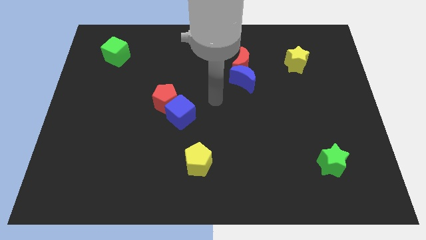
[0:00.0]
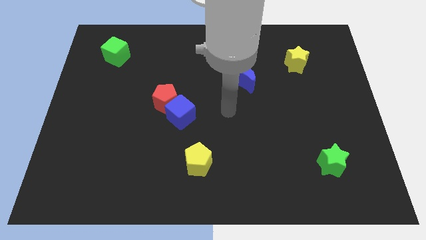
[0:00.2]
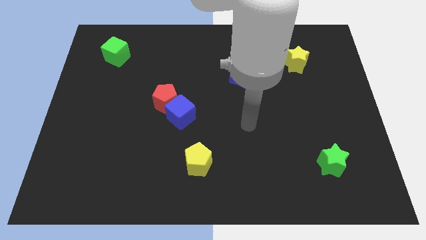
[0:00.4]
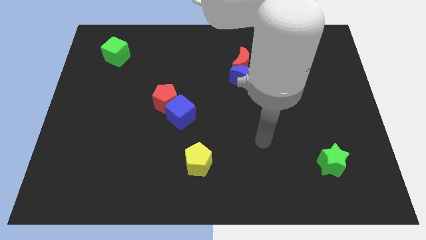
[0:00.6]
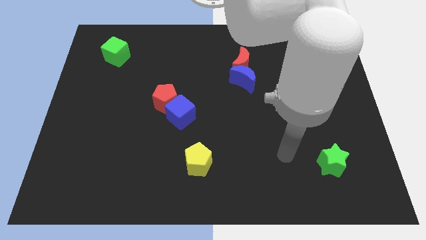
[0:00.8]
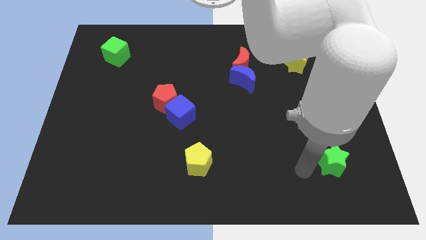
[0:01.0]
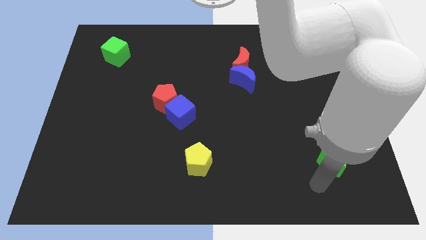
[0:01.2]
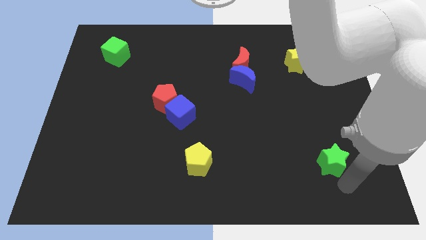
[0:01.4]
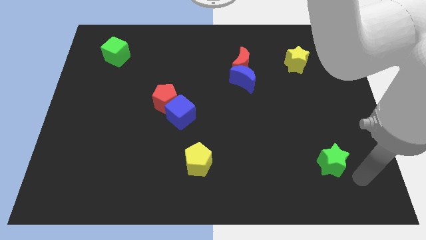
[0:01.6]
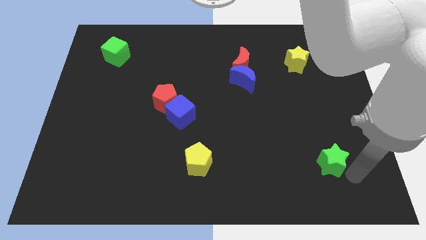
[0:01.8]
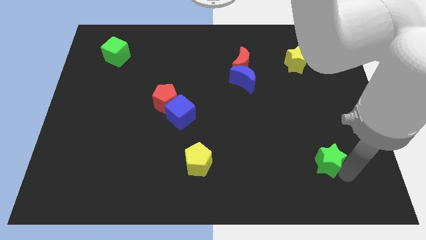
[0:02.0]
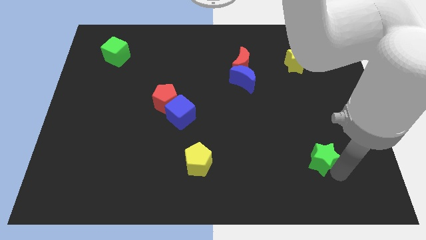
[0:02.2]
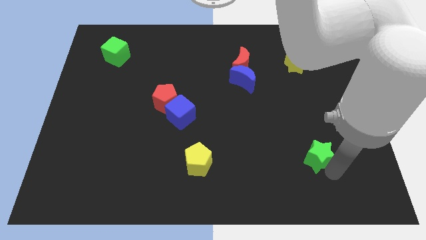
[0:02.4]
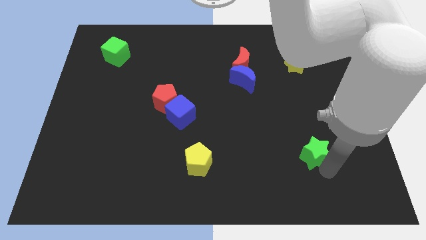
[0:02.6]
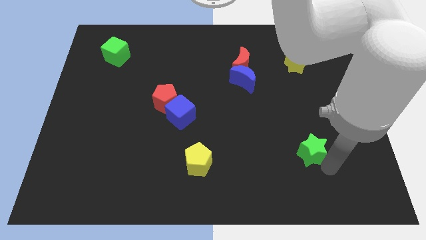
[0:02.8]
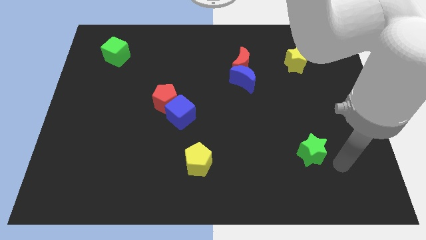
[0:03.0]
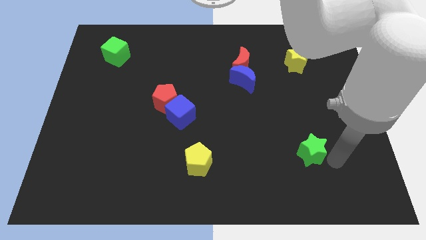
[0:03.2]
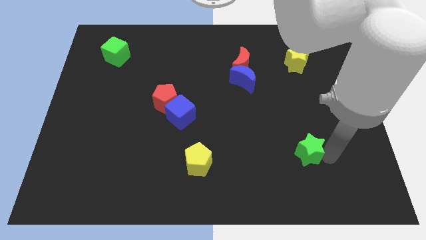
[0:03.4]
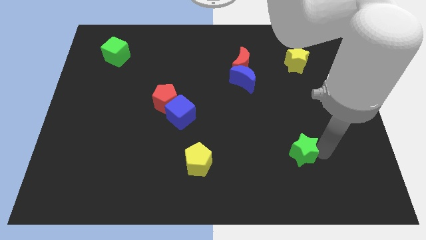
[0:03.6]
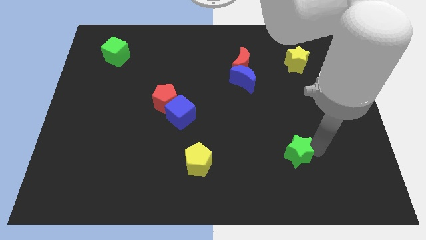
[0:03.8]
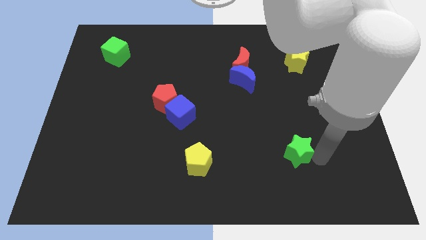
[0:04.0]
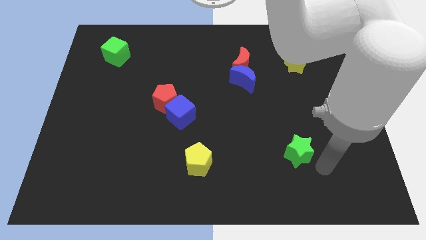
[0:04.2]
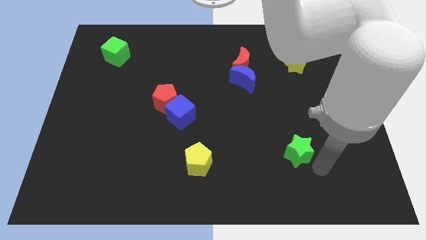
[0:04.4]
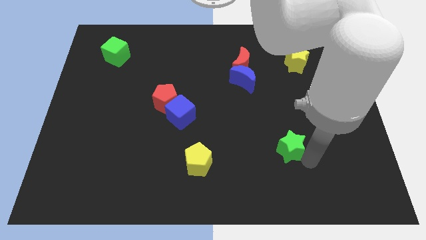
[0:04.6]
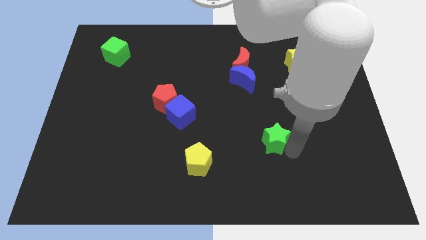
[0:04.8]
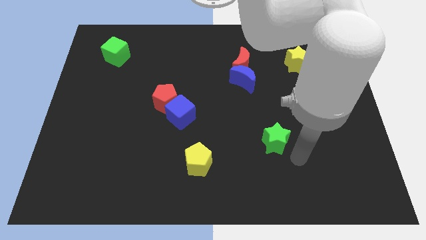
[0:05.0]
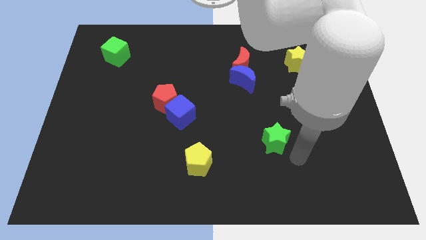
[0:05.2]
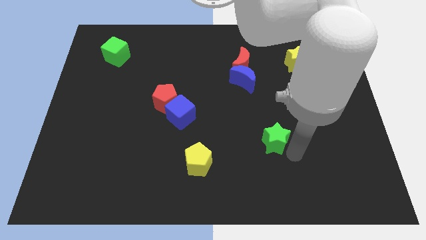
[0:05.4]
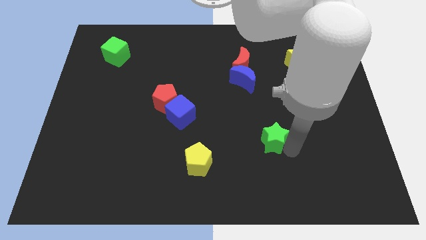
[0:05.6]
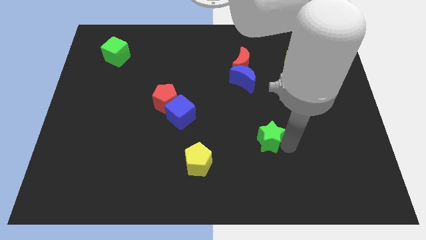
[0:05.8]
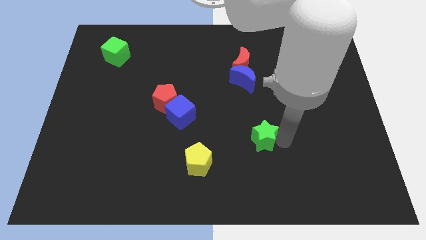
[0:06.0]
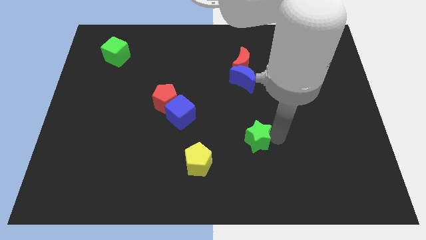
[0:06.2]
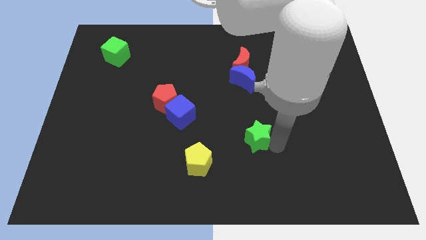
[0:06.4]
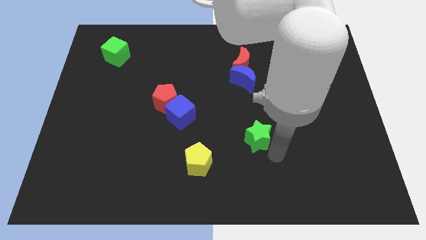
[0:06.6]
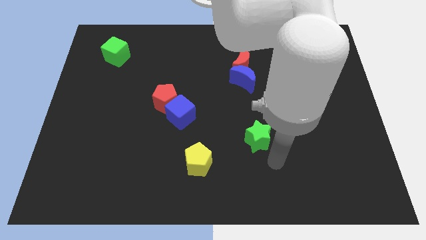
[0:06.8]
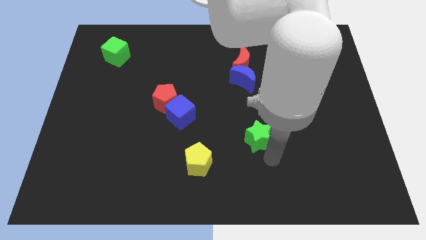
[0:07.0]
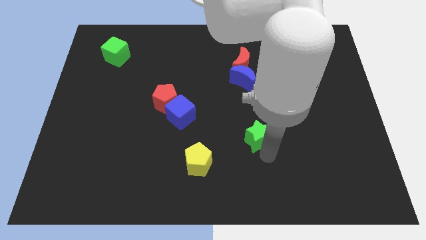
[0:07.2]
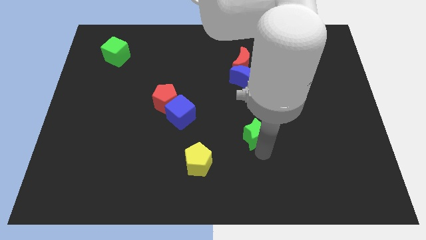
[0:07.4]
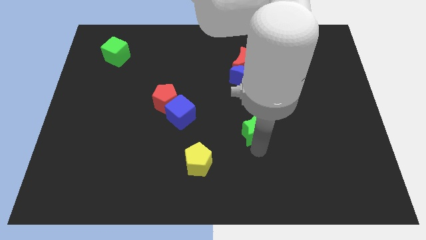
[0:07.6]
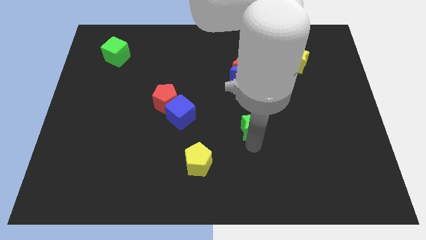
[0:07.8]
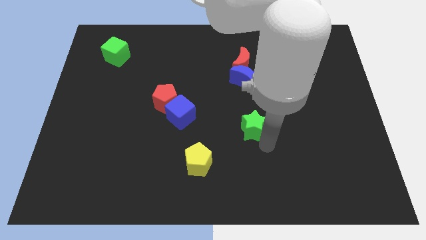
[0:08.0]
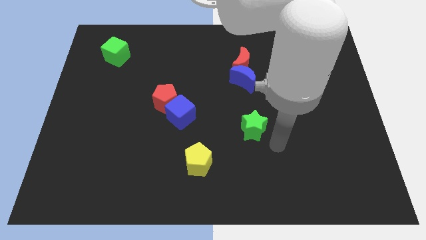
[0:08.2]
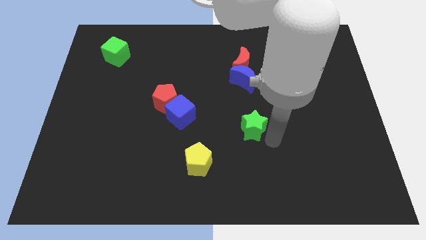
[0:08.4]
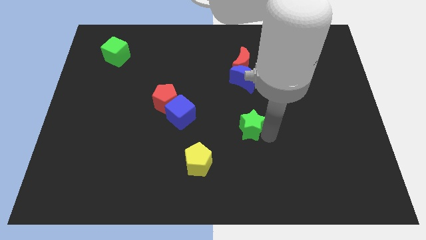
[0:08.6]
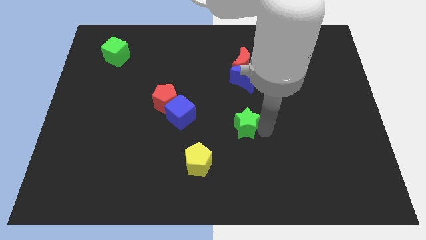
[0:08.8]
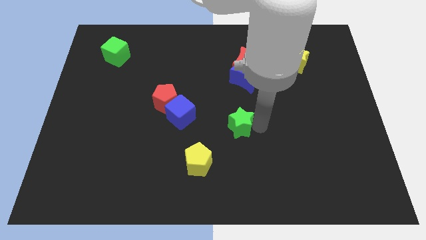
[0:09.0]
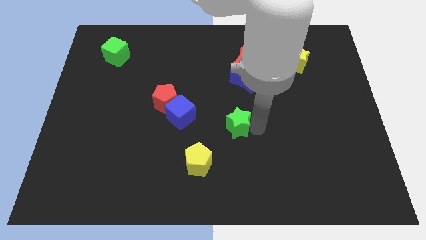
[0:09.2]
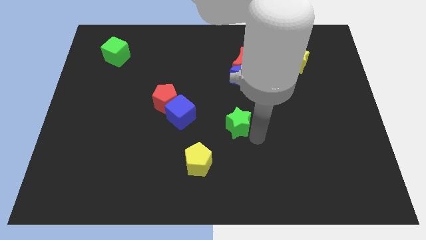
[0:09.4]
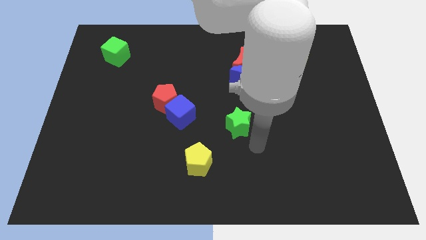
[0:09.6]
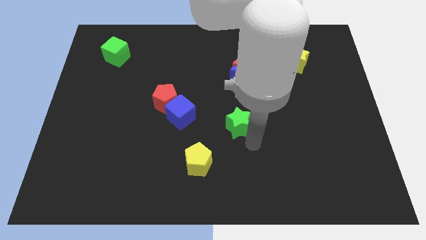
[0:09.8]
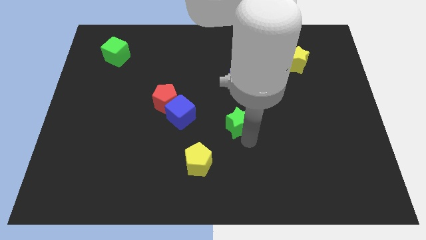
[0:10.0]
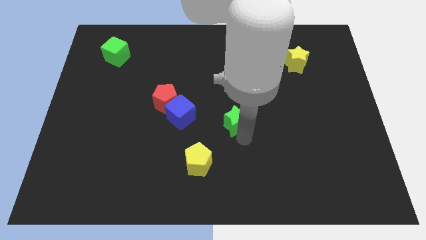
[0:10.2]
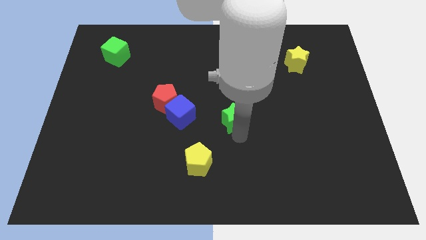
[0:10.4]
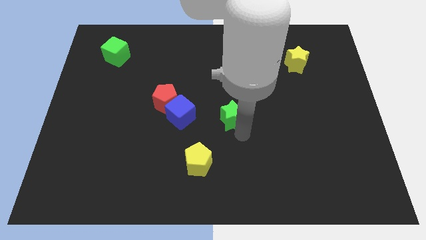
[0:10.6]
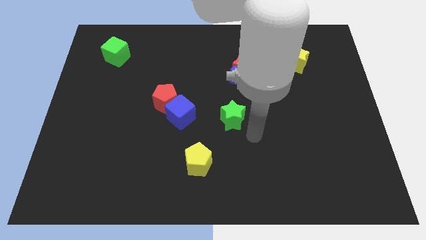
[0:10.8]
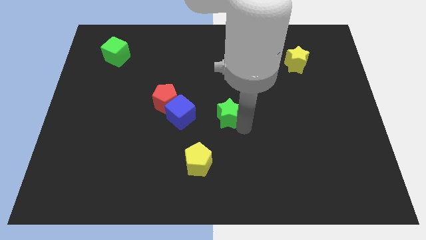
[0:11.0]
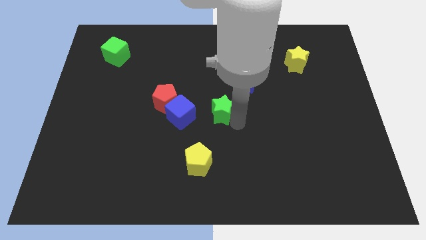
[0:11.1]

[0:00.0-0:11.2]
push the green star to the right side of the red pentagon
